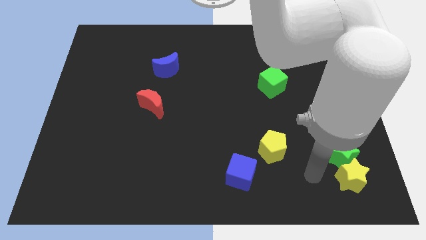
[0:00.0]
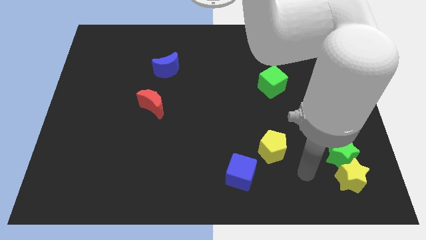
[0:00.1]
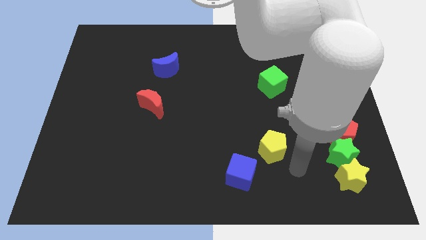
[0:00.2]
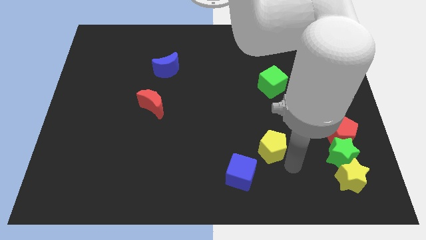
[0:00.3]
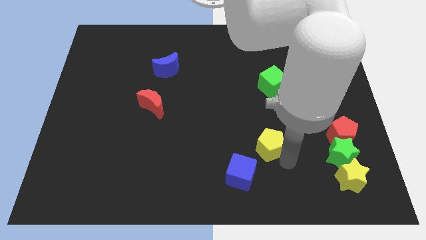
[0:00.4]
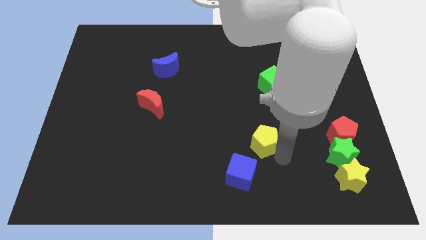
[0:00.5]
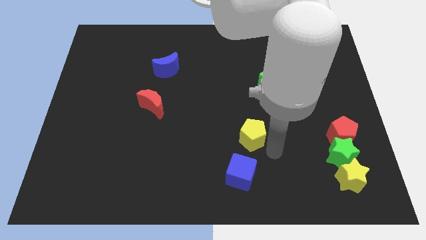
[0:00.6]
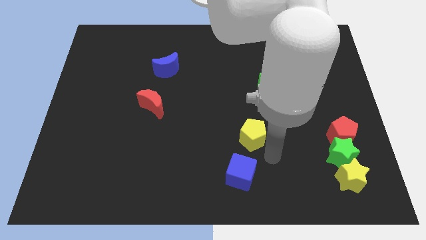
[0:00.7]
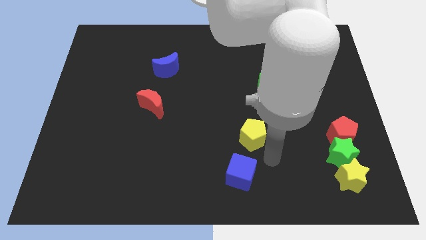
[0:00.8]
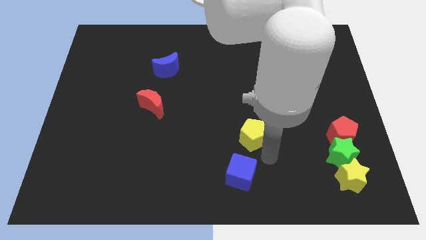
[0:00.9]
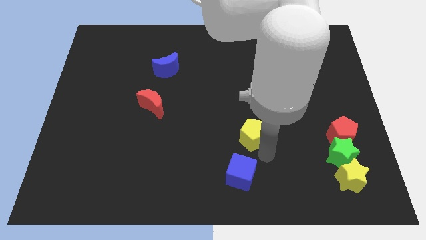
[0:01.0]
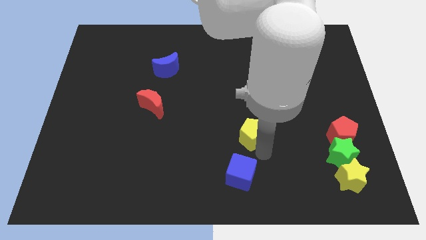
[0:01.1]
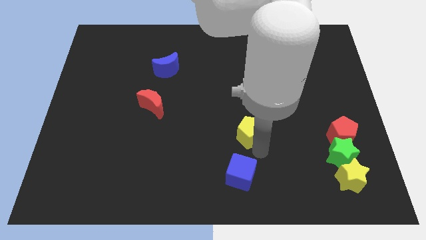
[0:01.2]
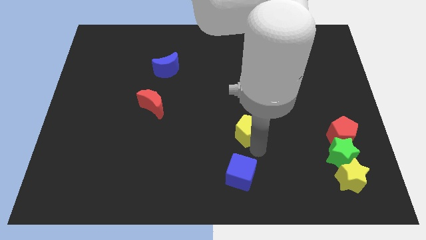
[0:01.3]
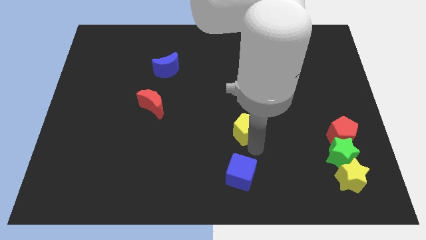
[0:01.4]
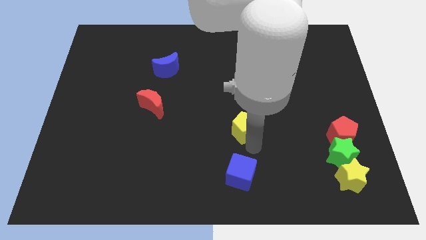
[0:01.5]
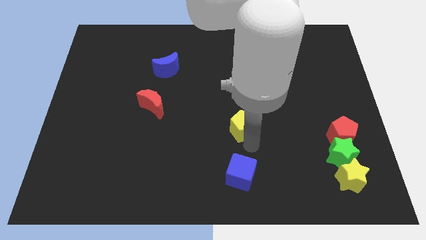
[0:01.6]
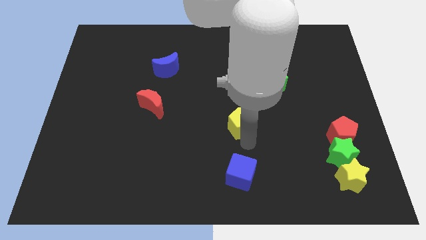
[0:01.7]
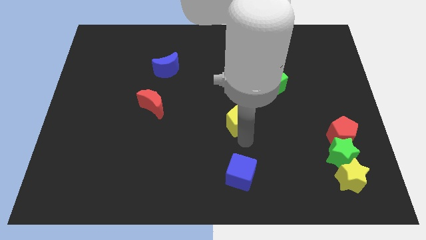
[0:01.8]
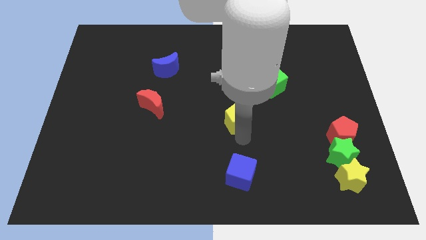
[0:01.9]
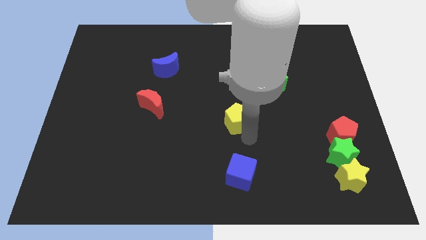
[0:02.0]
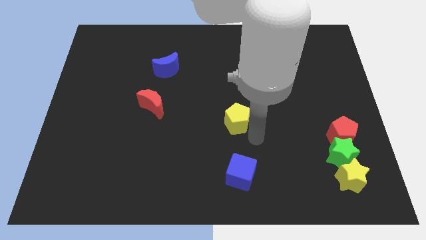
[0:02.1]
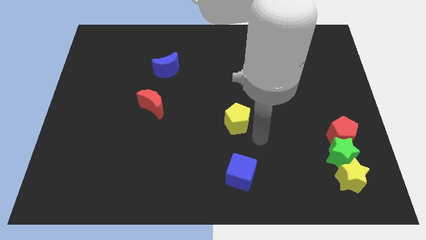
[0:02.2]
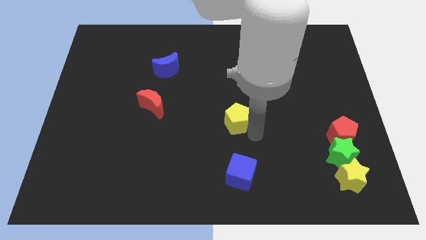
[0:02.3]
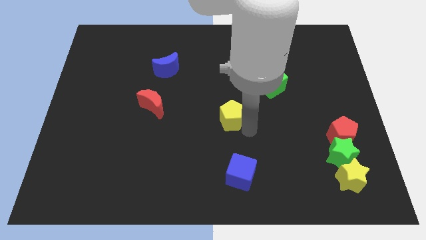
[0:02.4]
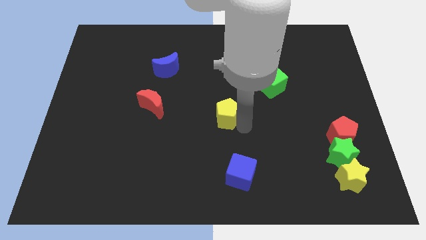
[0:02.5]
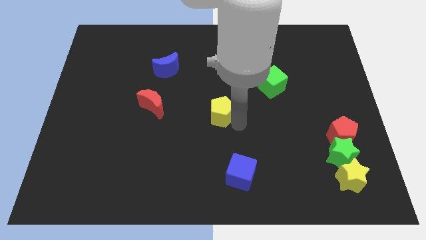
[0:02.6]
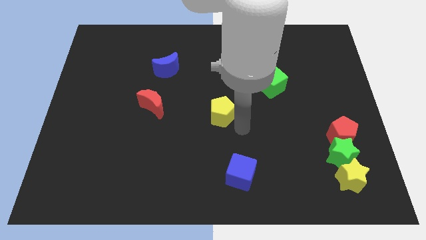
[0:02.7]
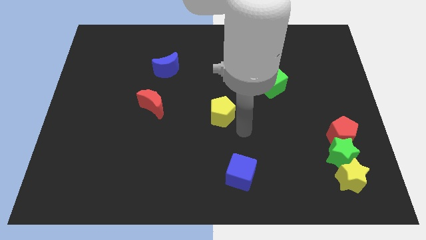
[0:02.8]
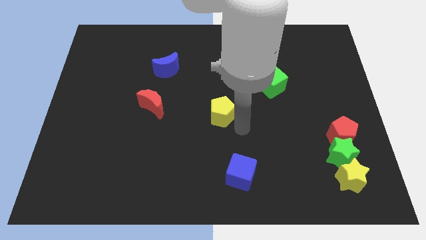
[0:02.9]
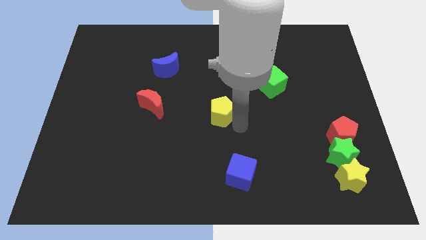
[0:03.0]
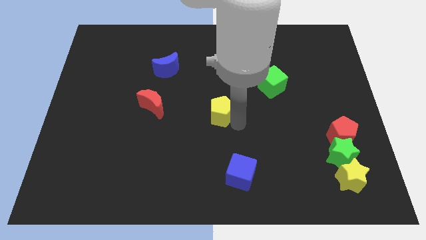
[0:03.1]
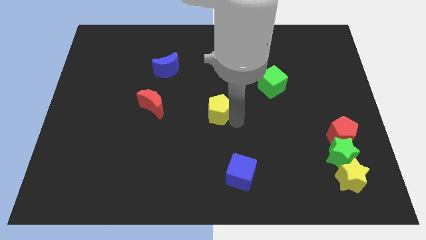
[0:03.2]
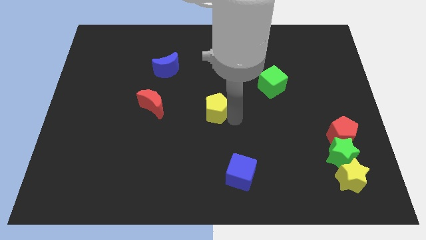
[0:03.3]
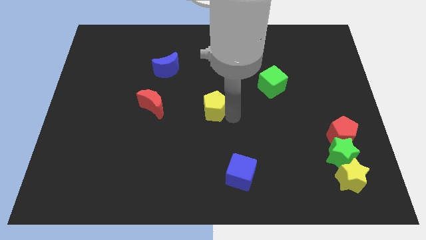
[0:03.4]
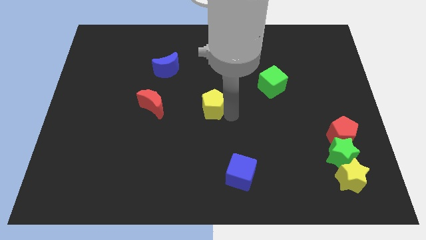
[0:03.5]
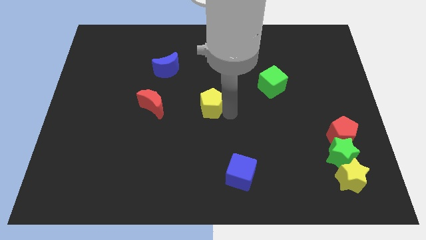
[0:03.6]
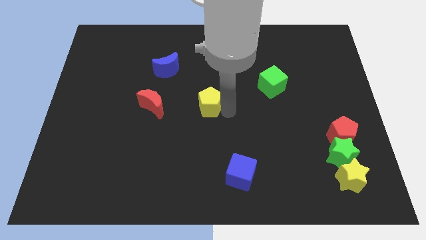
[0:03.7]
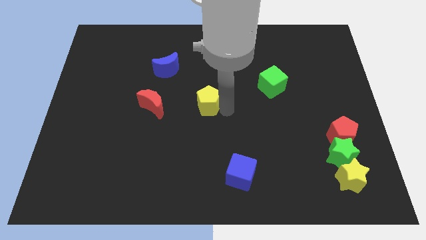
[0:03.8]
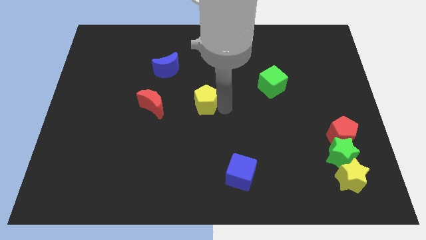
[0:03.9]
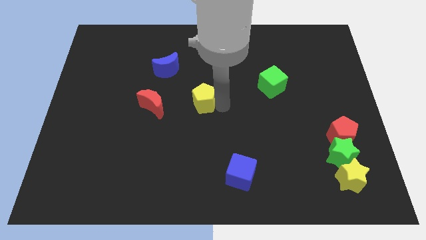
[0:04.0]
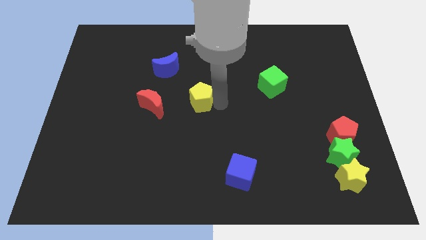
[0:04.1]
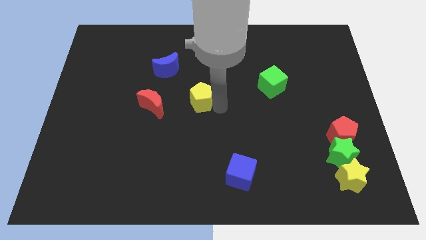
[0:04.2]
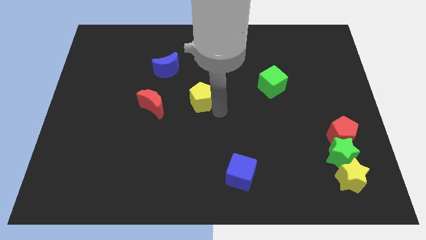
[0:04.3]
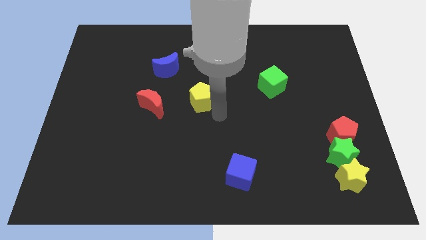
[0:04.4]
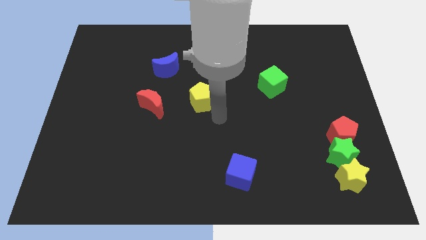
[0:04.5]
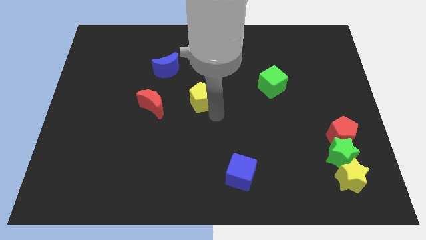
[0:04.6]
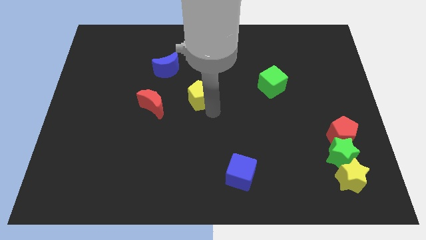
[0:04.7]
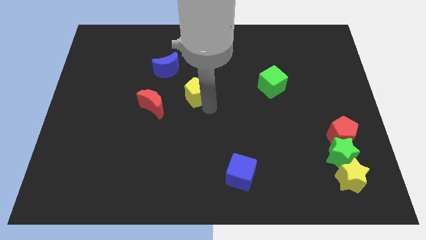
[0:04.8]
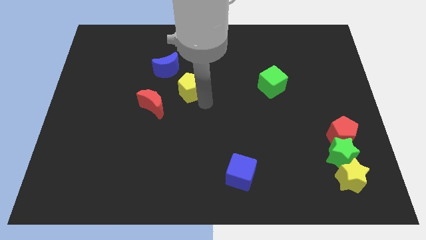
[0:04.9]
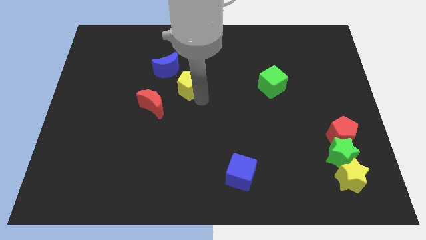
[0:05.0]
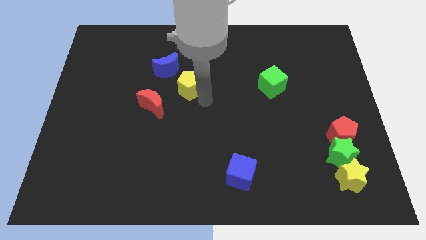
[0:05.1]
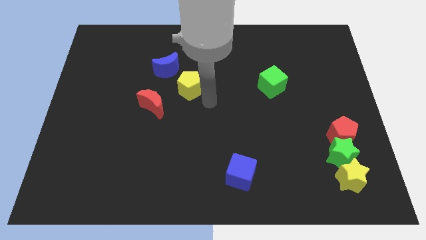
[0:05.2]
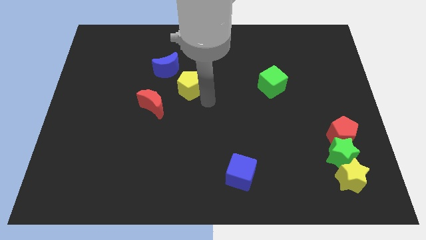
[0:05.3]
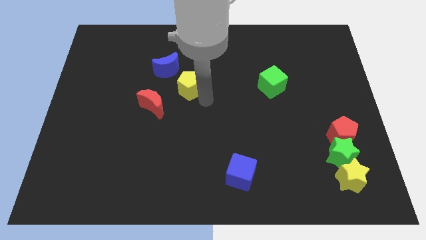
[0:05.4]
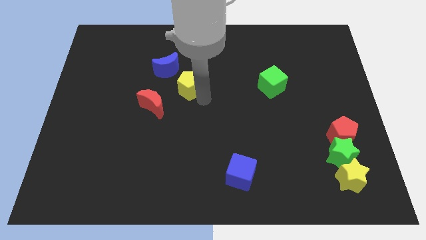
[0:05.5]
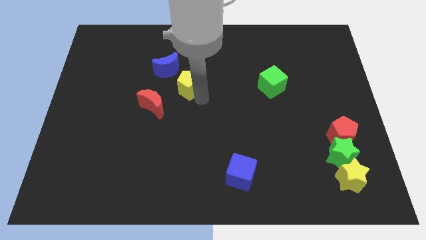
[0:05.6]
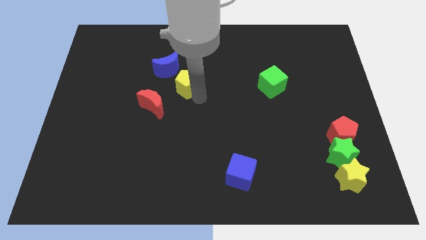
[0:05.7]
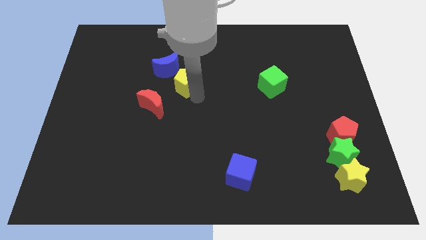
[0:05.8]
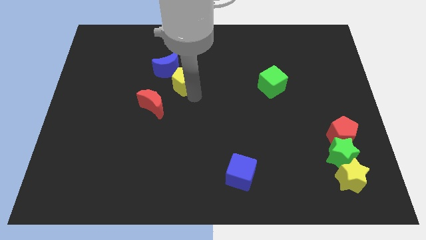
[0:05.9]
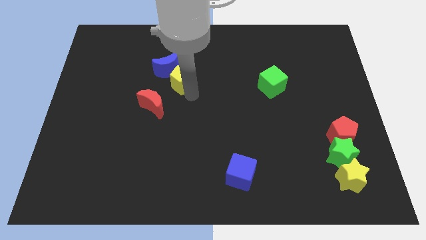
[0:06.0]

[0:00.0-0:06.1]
move the yellow pentagon to the blue moon

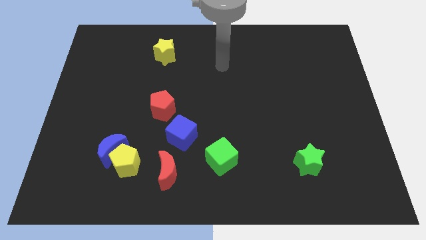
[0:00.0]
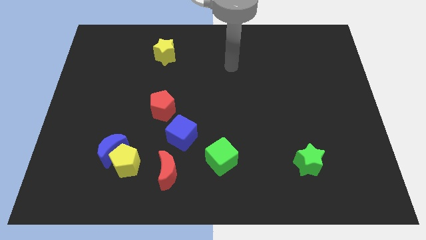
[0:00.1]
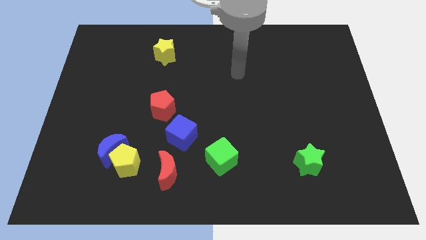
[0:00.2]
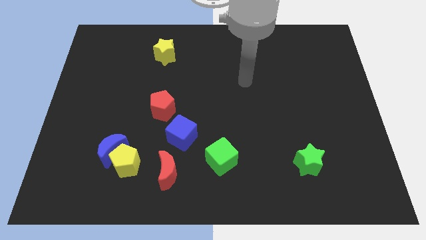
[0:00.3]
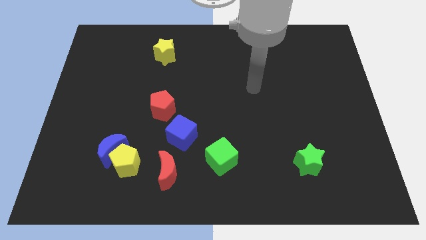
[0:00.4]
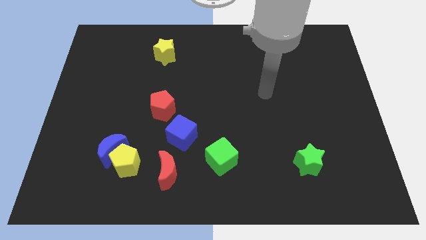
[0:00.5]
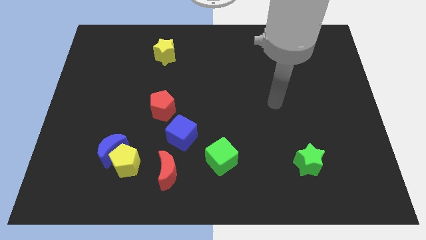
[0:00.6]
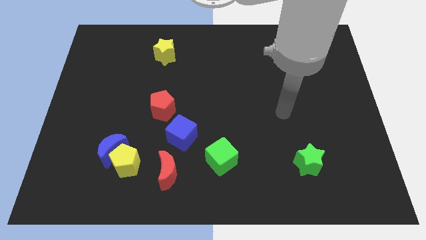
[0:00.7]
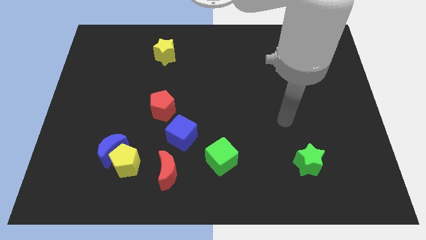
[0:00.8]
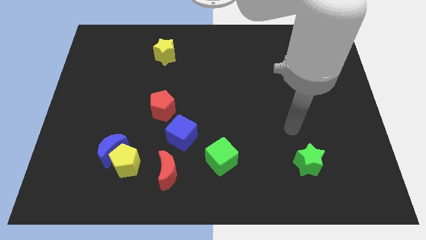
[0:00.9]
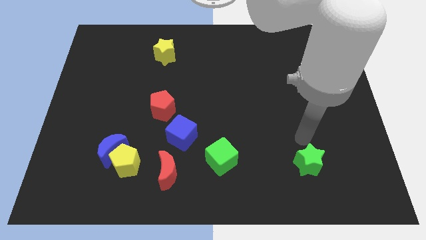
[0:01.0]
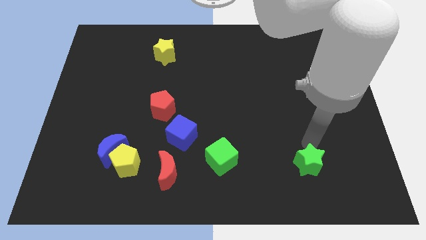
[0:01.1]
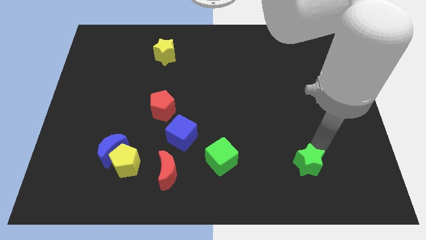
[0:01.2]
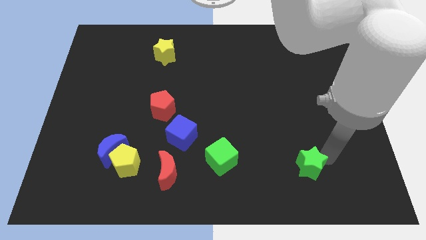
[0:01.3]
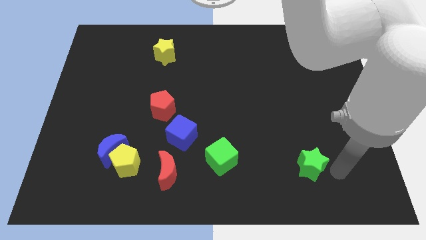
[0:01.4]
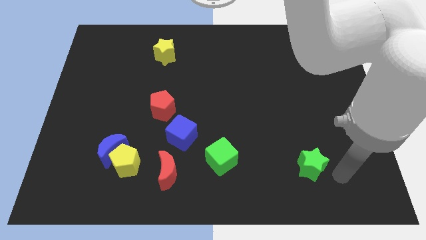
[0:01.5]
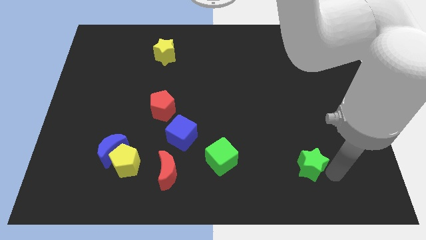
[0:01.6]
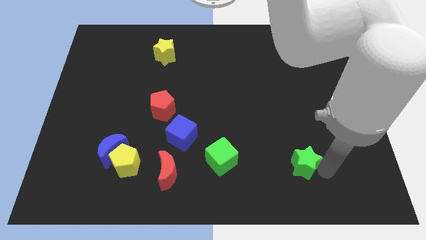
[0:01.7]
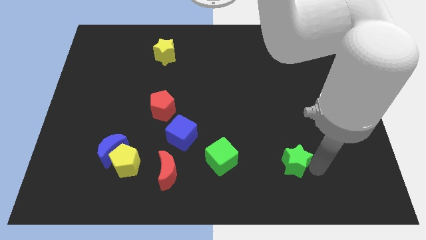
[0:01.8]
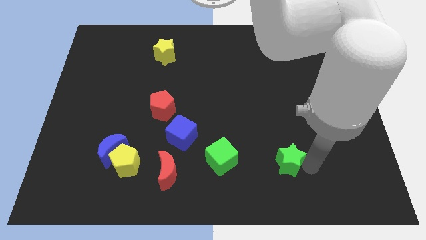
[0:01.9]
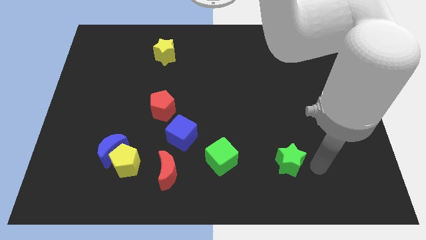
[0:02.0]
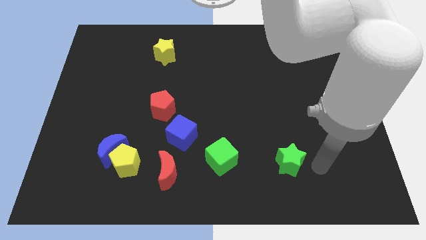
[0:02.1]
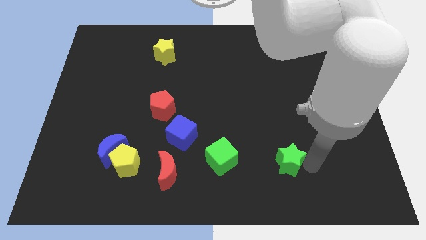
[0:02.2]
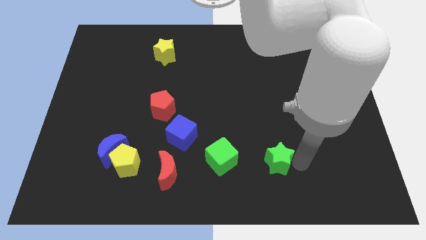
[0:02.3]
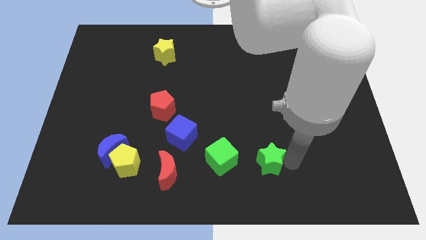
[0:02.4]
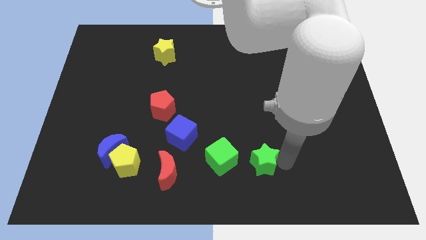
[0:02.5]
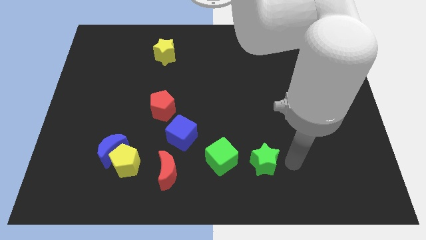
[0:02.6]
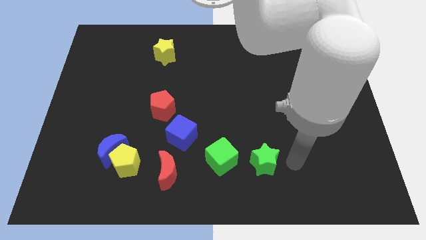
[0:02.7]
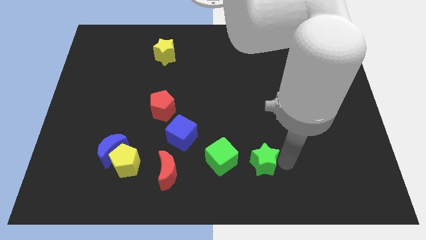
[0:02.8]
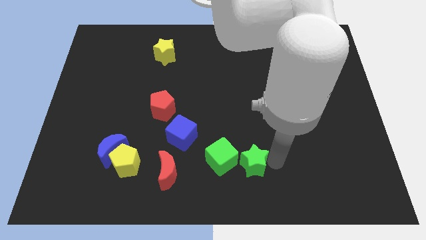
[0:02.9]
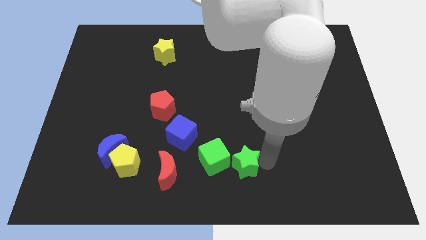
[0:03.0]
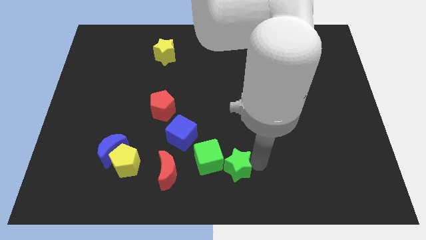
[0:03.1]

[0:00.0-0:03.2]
slide the green star to the green cube
